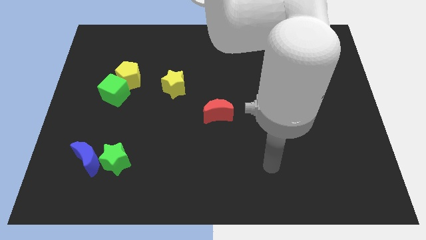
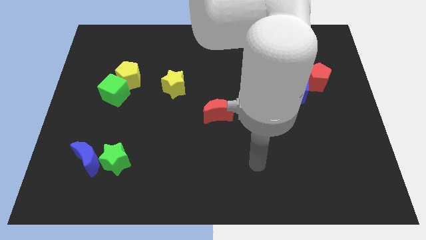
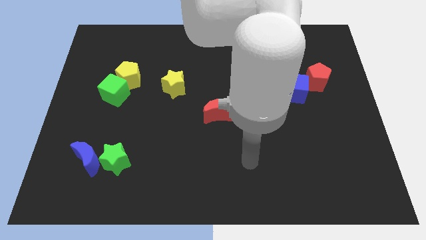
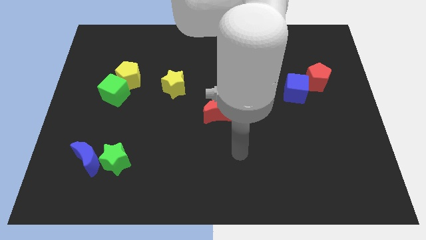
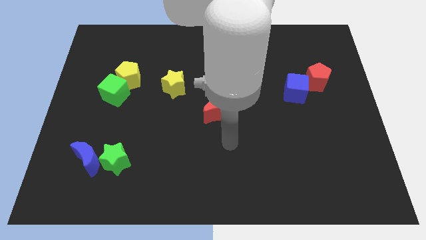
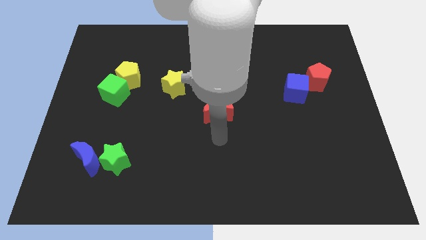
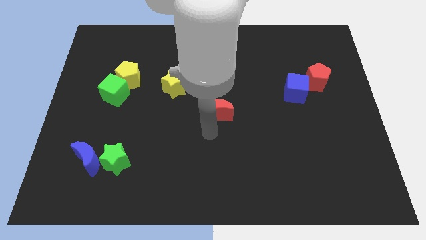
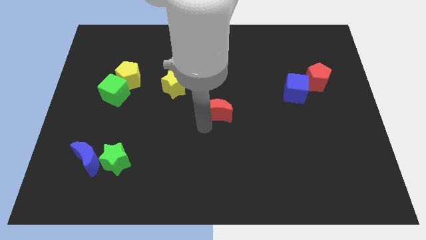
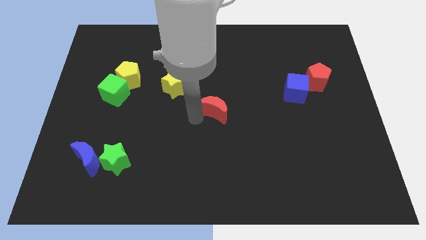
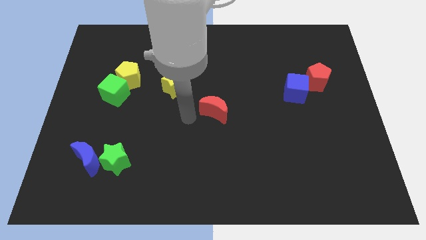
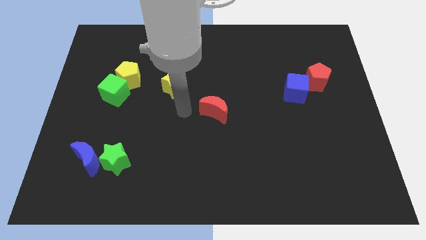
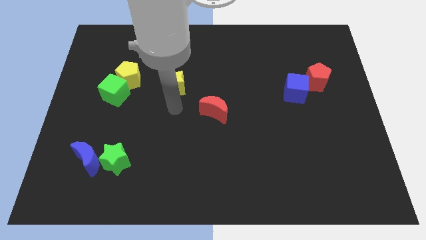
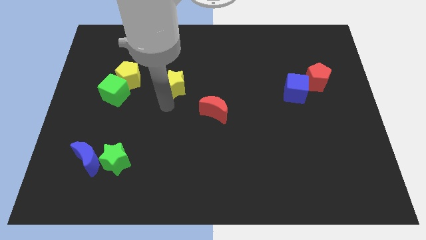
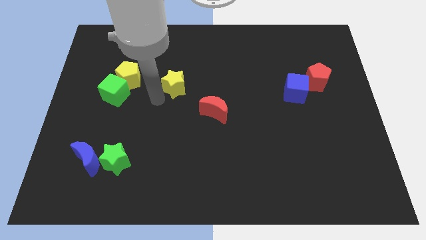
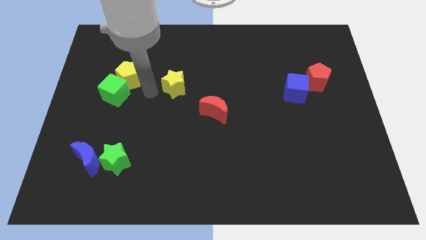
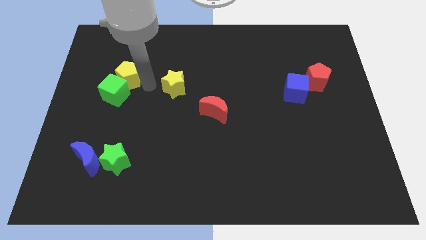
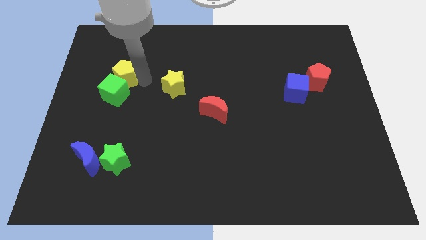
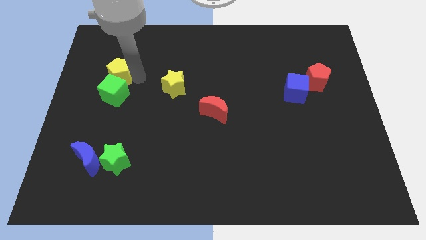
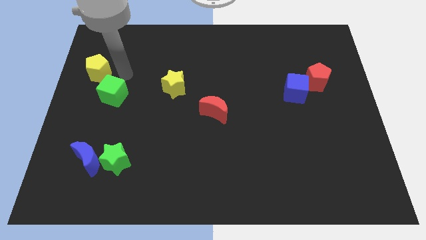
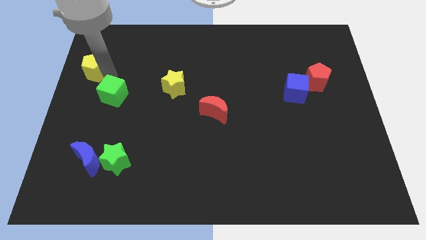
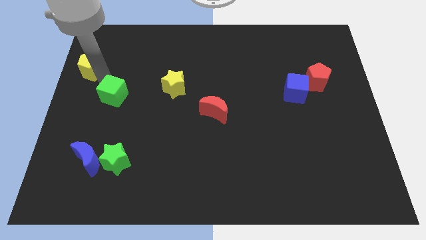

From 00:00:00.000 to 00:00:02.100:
separate the green cube from the yellow pentagon

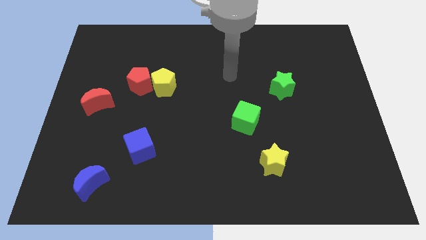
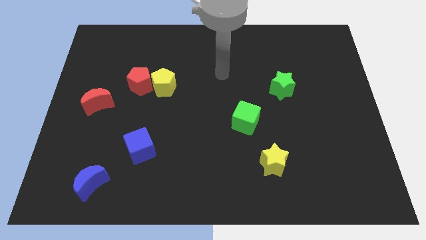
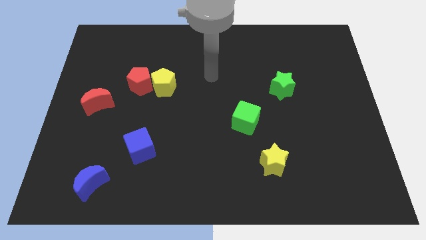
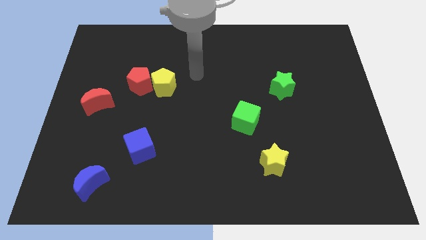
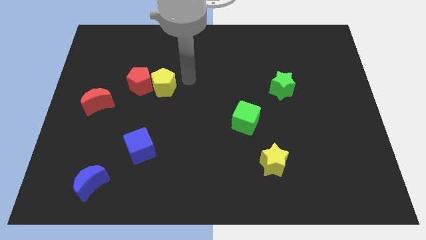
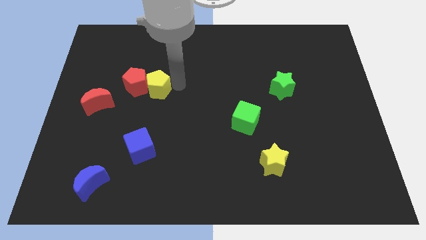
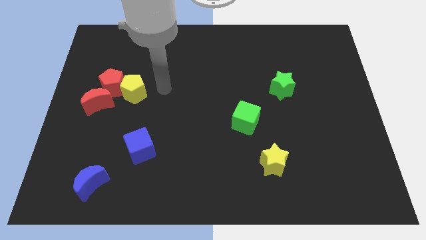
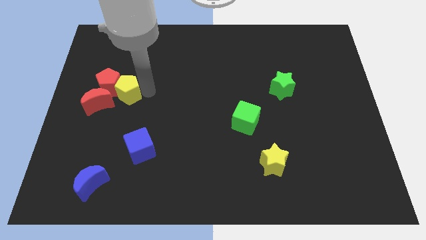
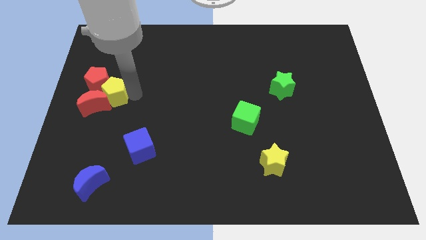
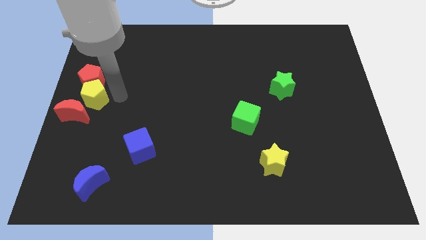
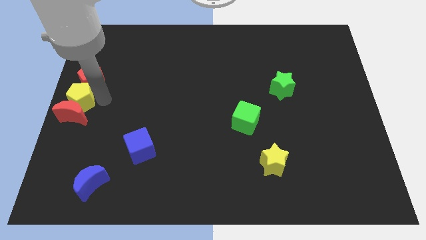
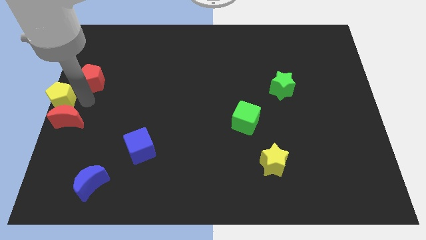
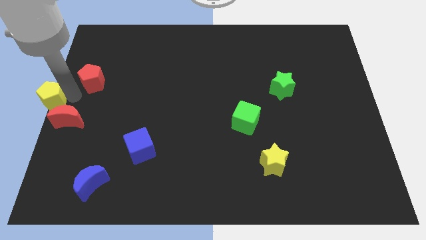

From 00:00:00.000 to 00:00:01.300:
pull the red pentagon apart from the yellow pentagon

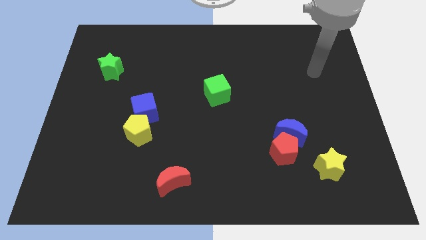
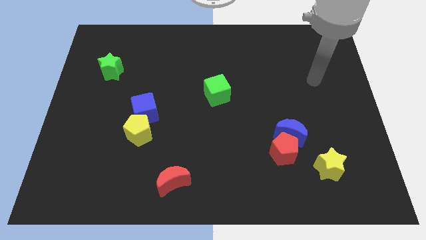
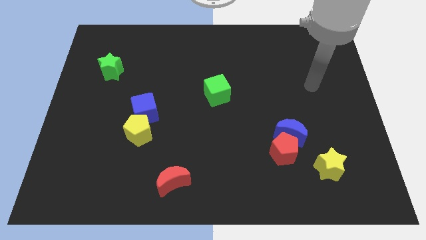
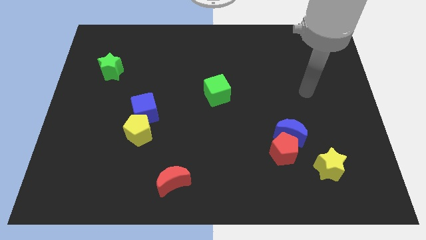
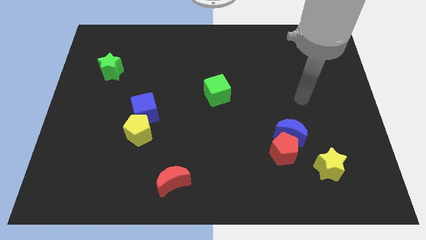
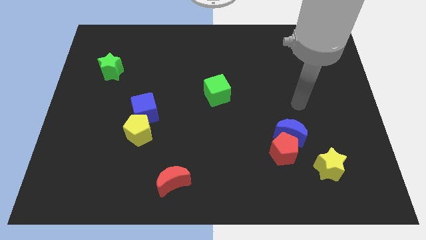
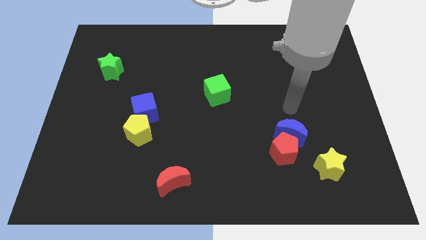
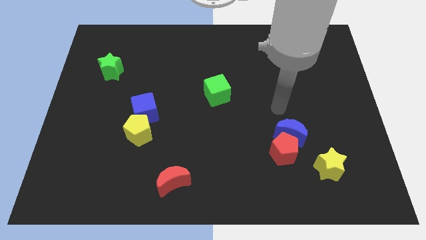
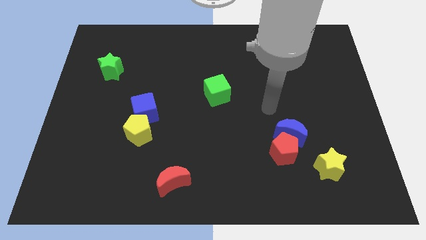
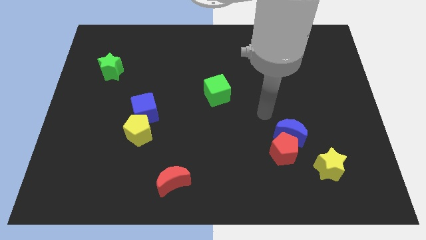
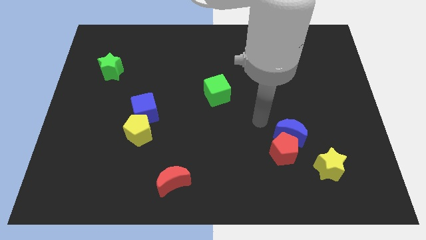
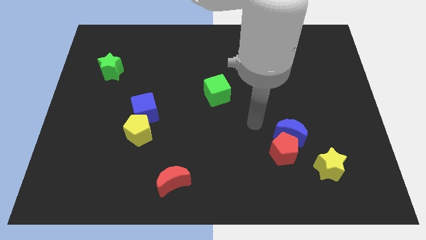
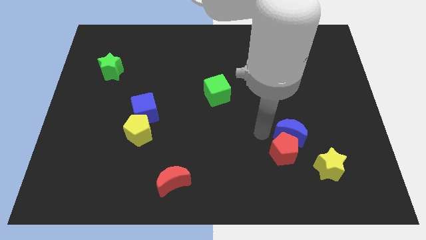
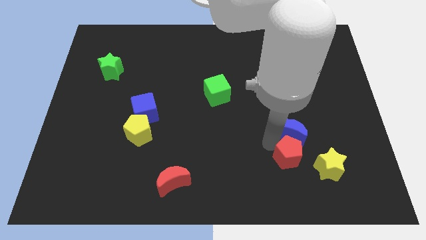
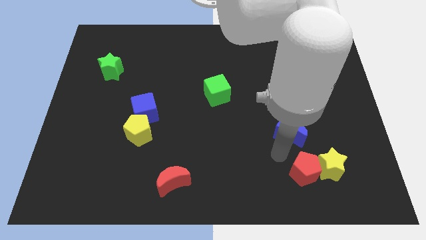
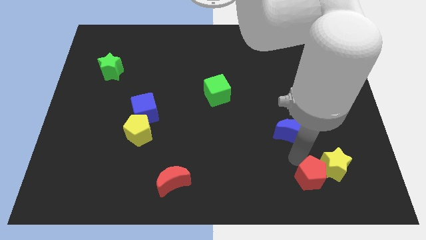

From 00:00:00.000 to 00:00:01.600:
separate the blue moon from the red pentagon

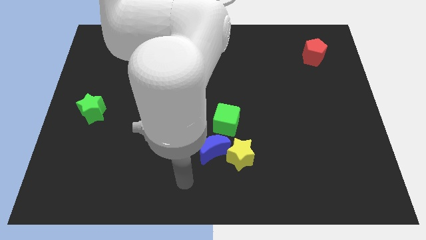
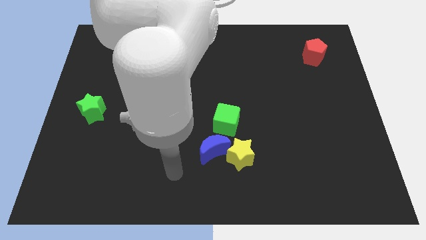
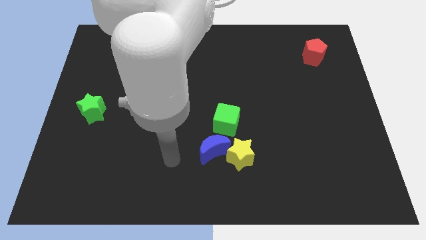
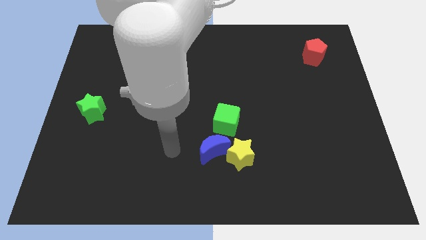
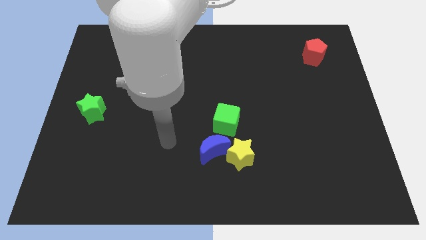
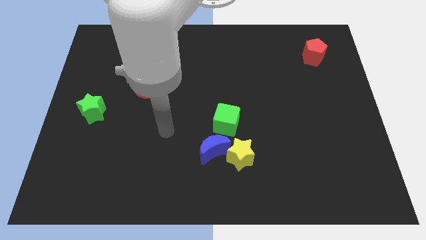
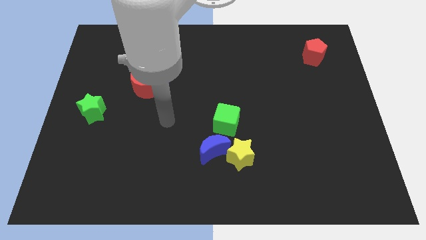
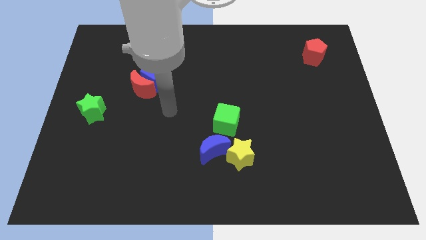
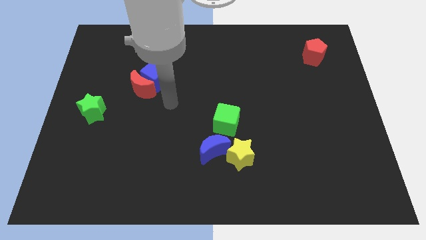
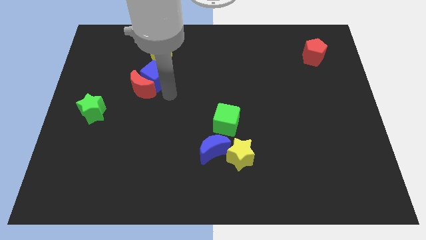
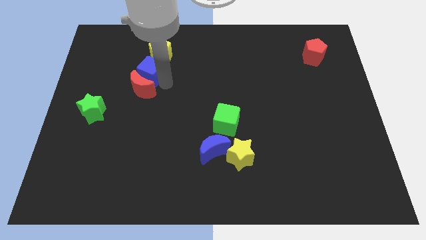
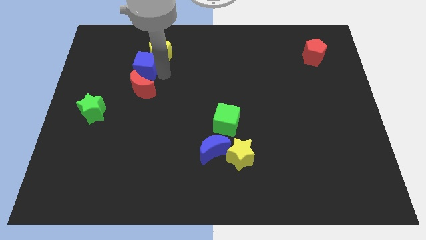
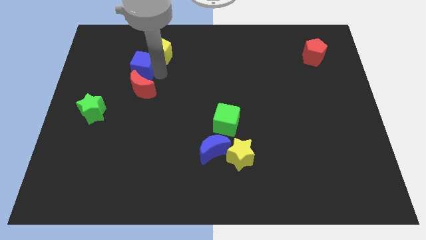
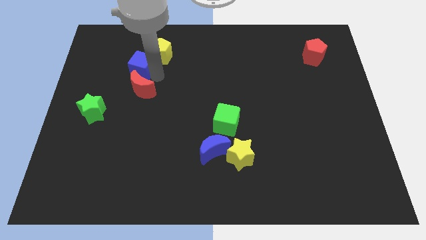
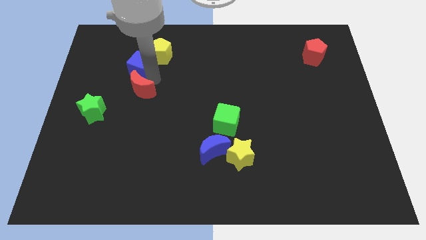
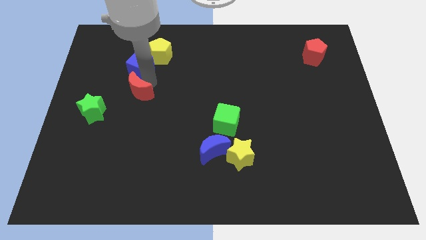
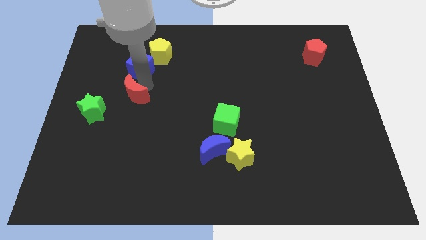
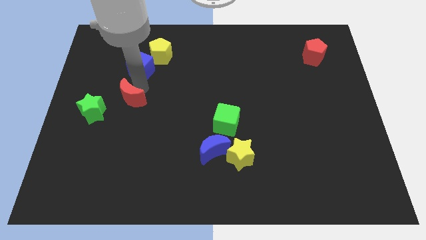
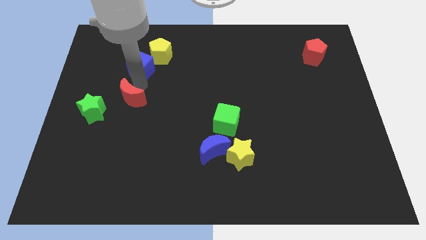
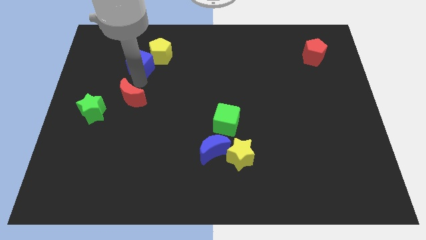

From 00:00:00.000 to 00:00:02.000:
separate the red moon from the blue cube

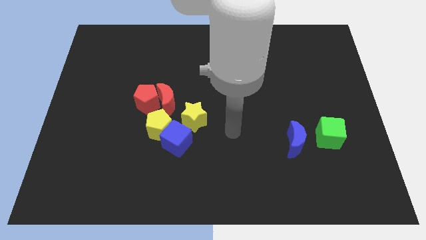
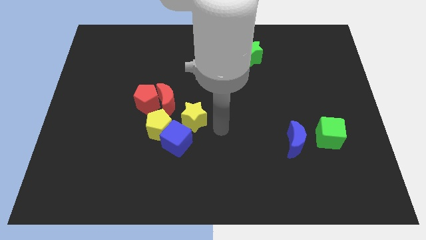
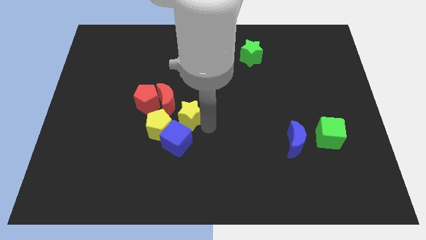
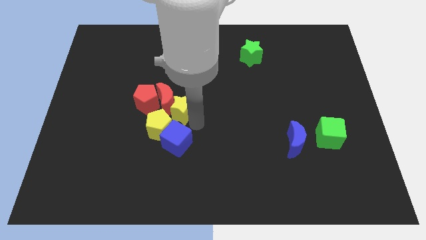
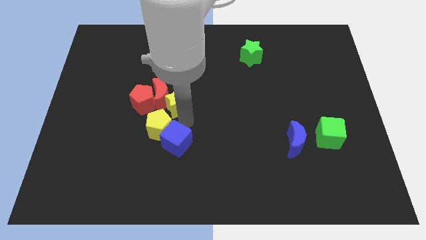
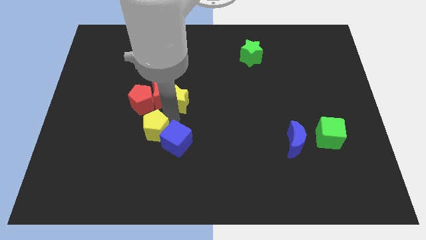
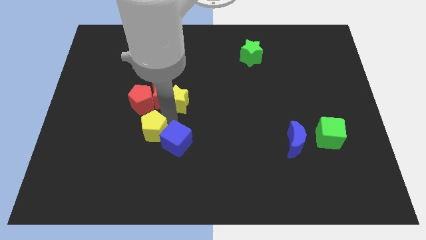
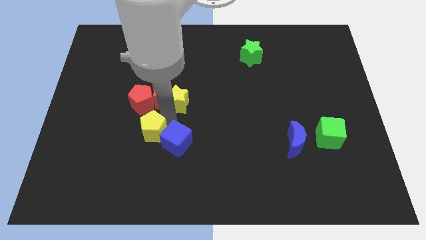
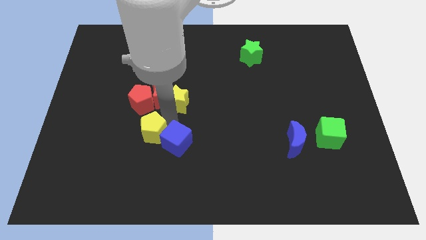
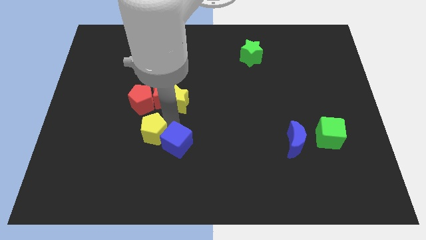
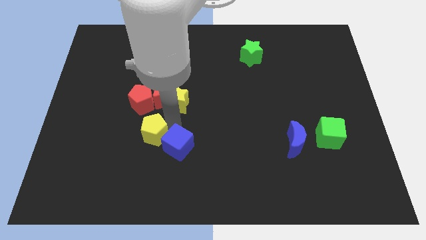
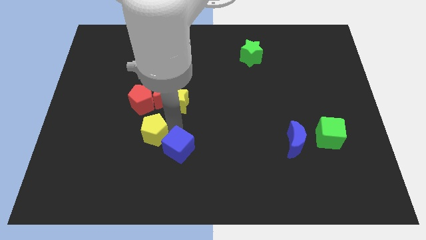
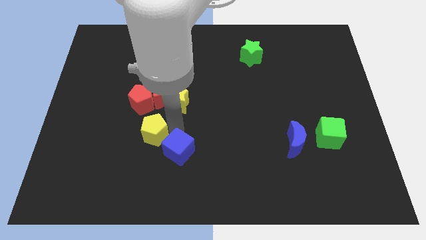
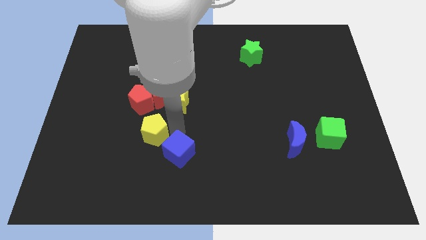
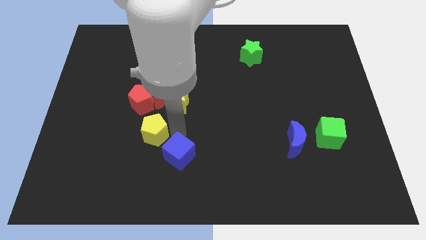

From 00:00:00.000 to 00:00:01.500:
move the blue cube away from the yellow pentagon and yellow star

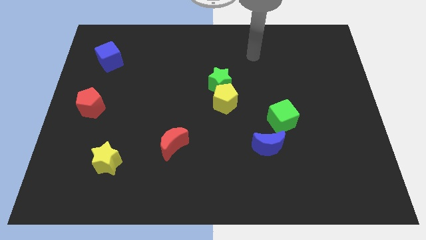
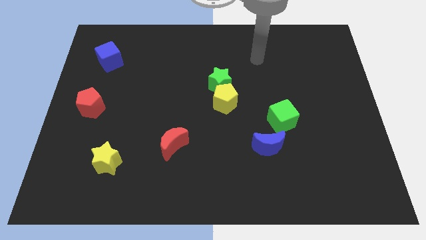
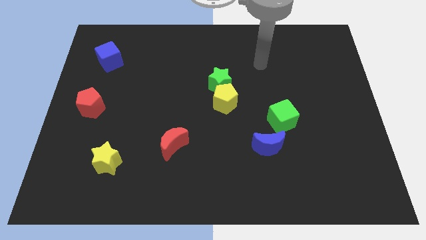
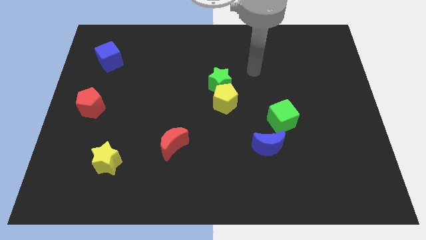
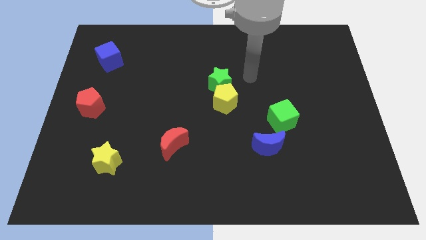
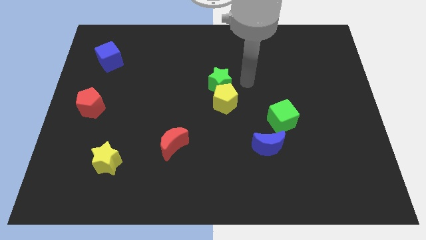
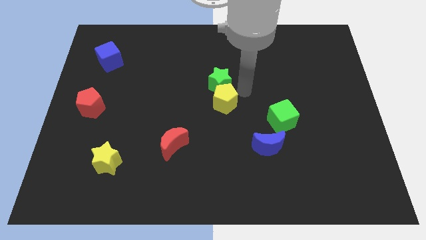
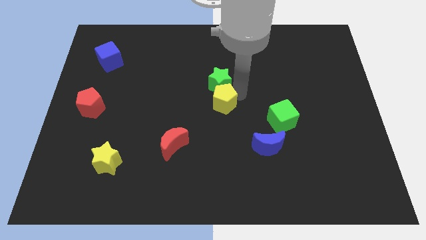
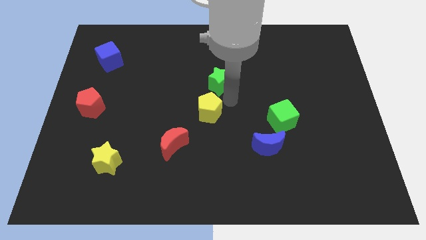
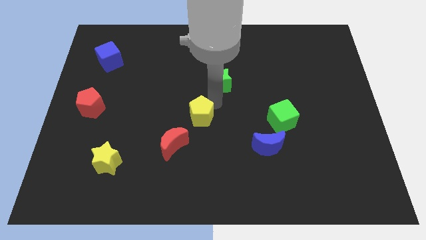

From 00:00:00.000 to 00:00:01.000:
move the green star away from the yellow pentagon
